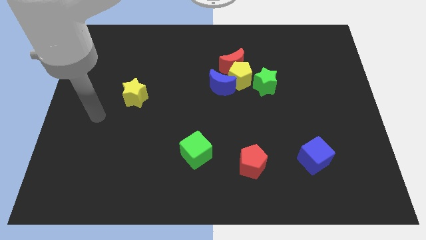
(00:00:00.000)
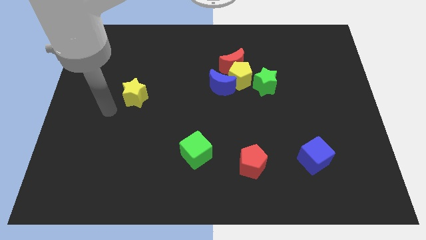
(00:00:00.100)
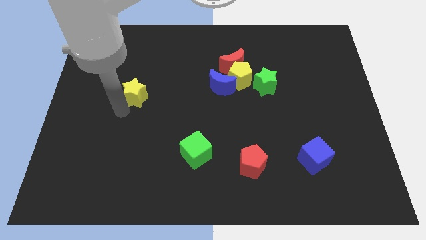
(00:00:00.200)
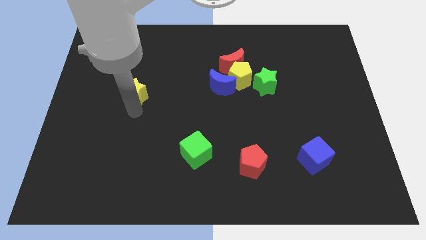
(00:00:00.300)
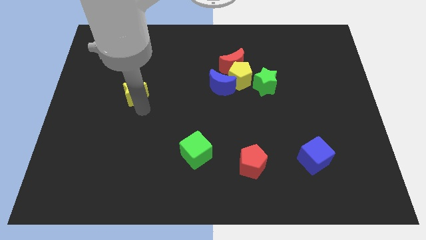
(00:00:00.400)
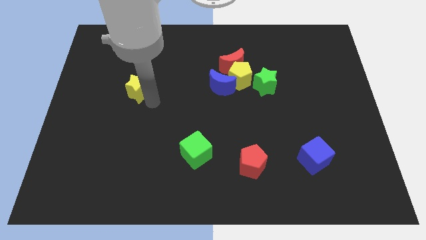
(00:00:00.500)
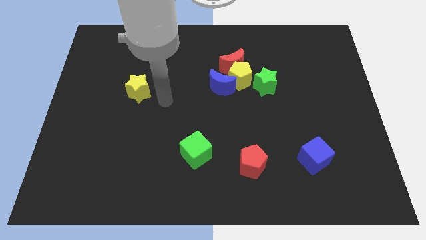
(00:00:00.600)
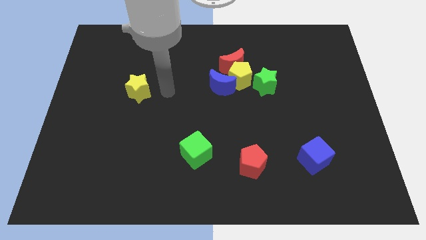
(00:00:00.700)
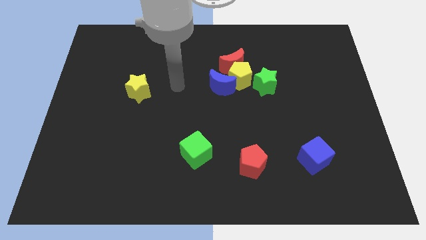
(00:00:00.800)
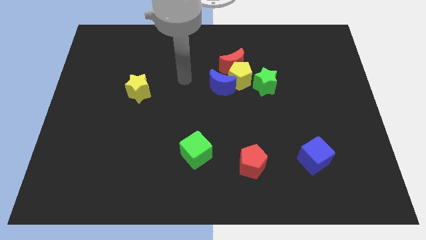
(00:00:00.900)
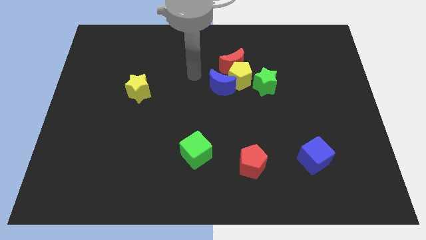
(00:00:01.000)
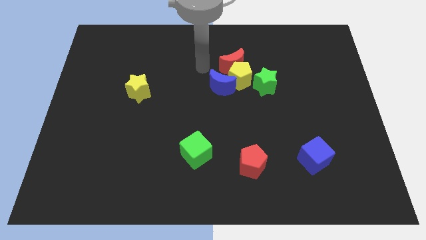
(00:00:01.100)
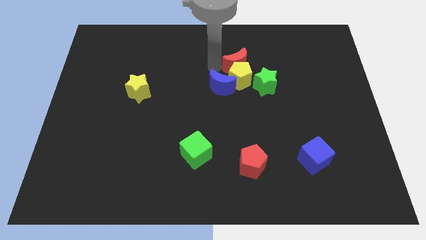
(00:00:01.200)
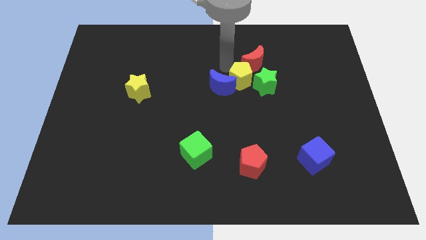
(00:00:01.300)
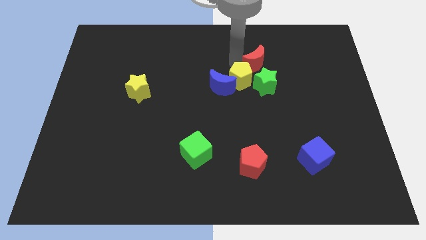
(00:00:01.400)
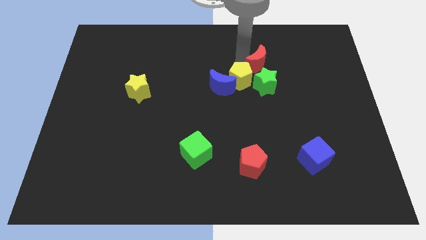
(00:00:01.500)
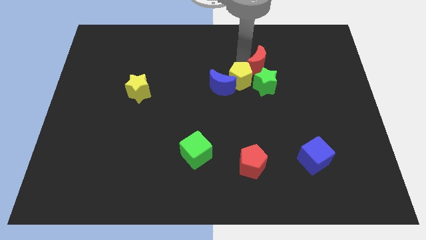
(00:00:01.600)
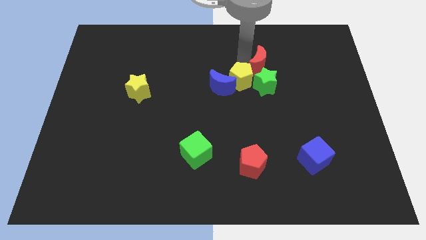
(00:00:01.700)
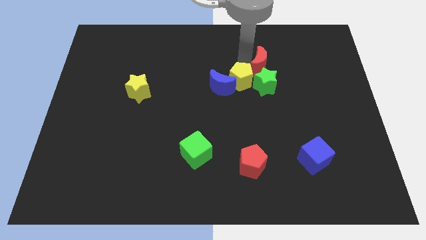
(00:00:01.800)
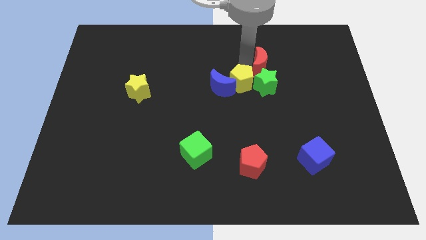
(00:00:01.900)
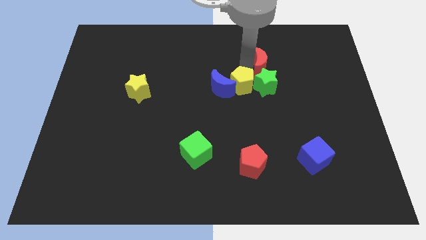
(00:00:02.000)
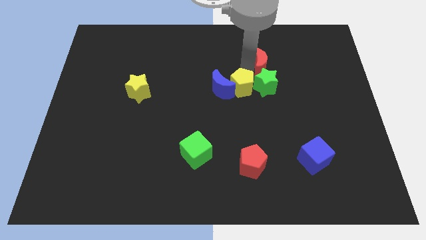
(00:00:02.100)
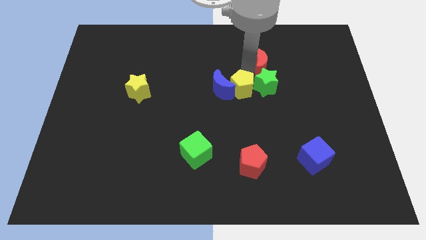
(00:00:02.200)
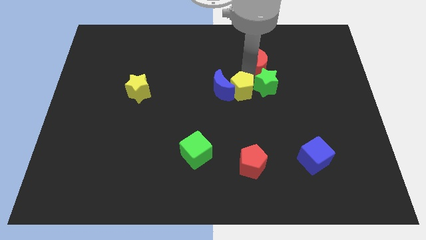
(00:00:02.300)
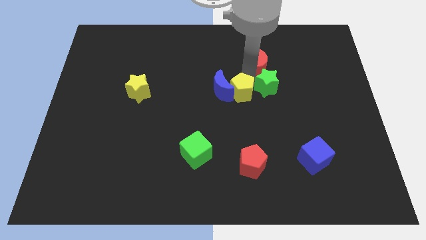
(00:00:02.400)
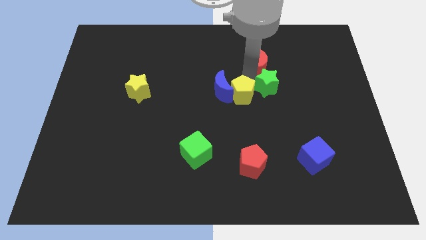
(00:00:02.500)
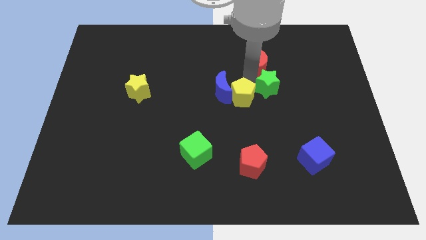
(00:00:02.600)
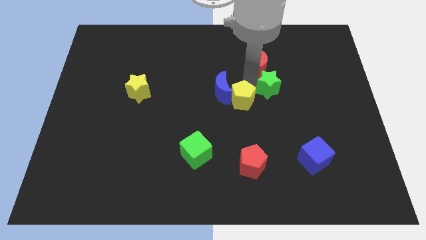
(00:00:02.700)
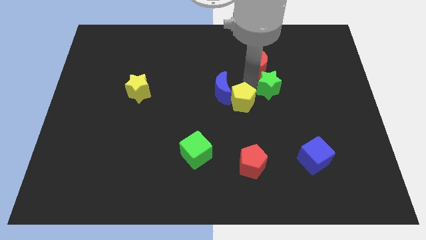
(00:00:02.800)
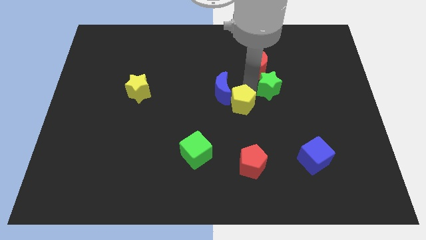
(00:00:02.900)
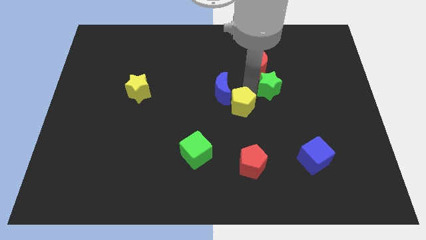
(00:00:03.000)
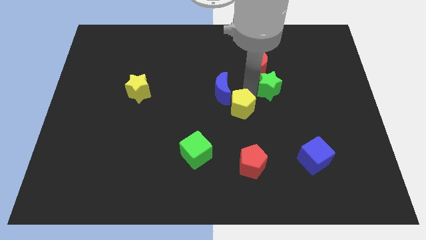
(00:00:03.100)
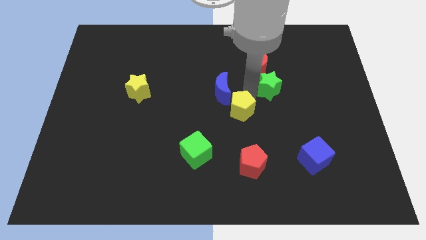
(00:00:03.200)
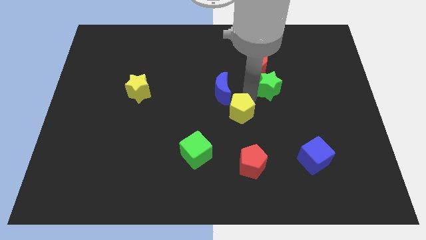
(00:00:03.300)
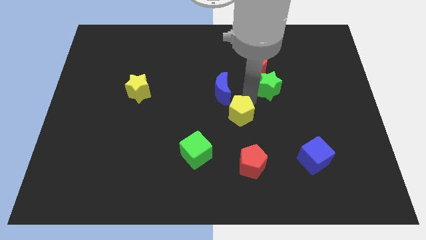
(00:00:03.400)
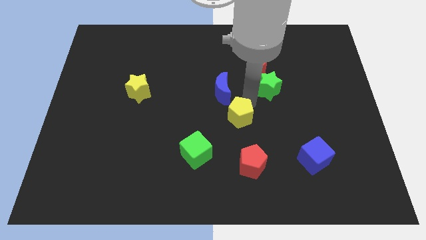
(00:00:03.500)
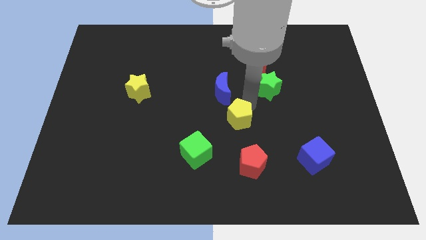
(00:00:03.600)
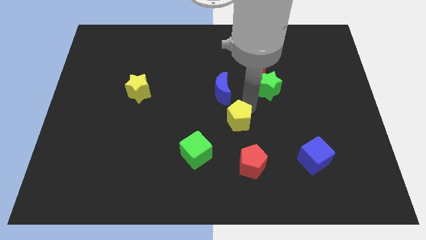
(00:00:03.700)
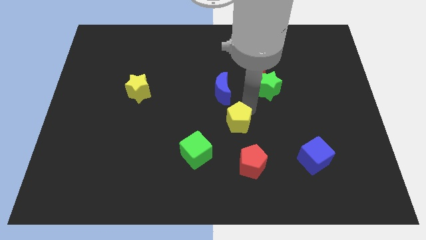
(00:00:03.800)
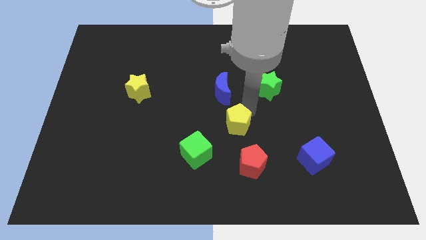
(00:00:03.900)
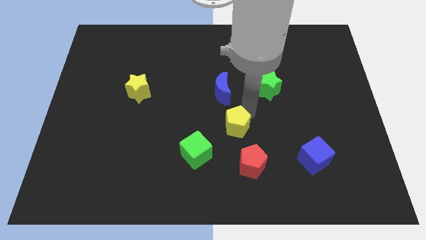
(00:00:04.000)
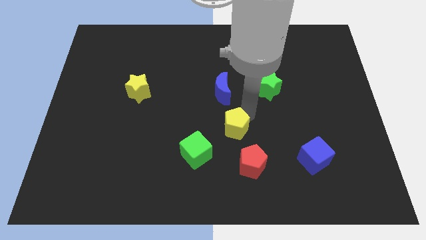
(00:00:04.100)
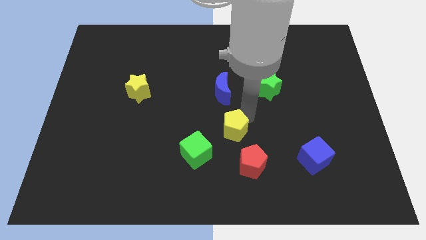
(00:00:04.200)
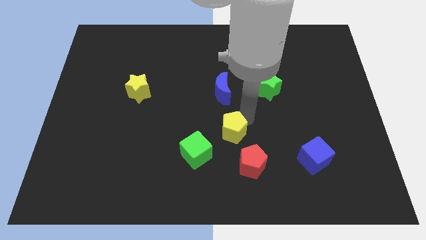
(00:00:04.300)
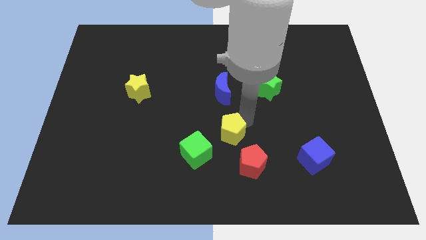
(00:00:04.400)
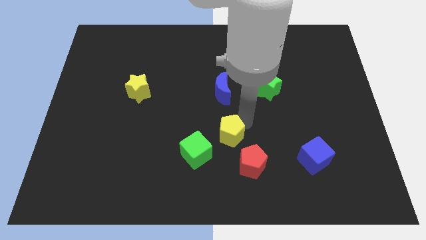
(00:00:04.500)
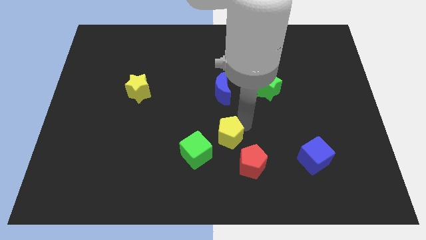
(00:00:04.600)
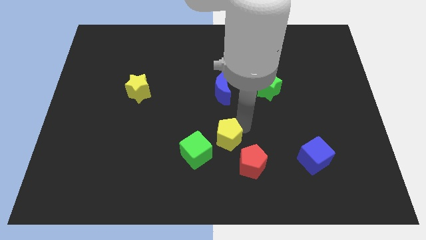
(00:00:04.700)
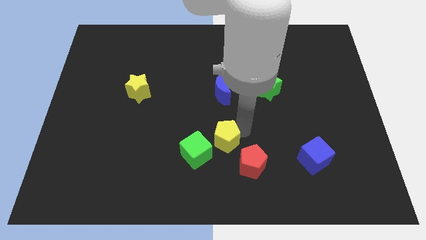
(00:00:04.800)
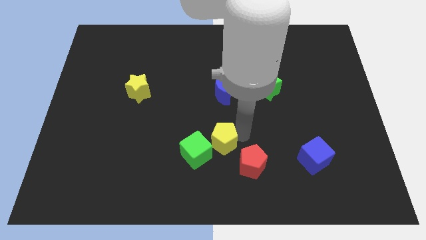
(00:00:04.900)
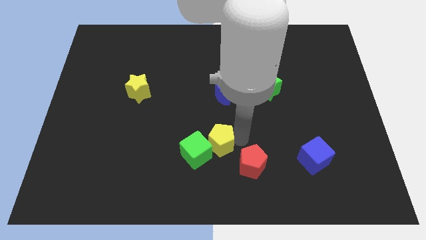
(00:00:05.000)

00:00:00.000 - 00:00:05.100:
move the yellow pentagon to the green cube

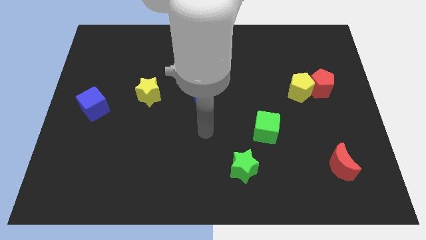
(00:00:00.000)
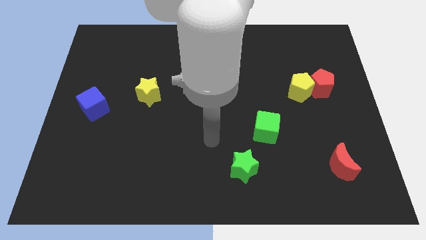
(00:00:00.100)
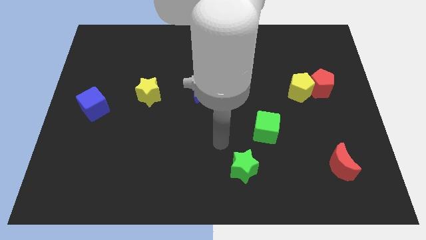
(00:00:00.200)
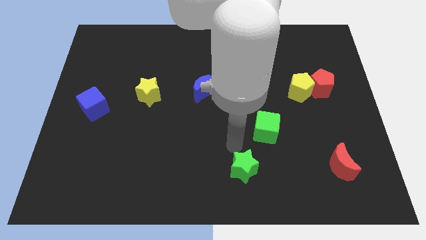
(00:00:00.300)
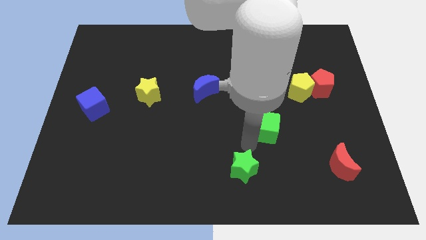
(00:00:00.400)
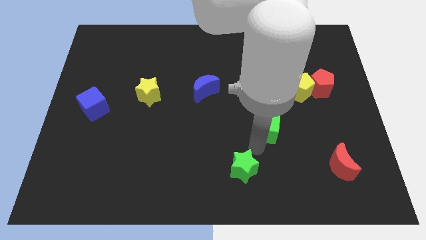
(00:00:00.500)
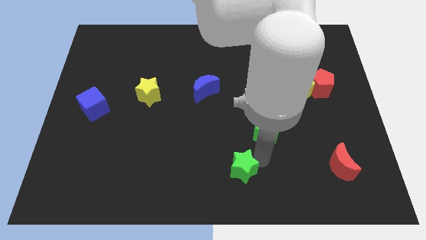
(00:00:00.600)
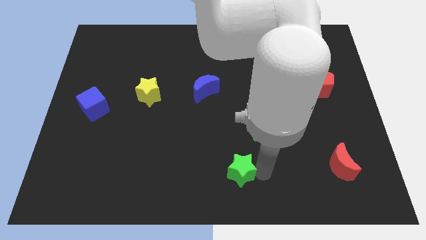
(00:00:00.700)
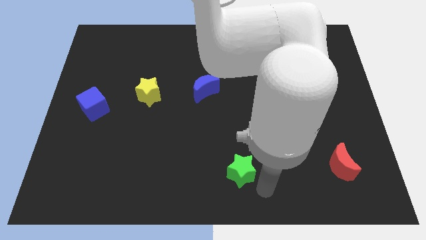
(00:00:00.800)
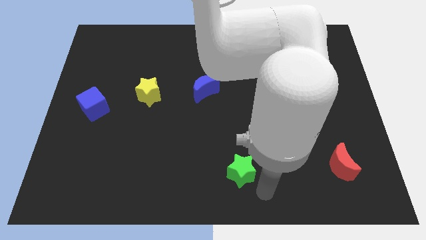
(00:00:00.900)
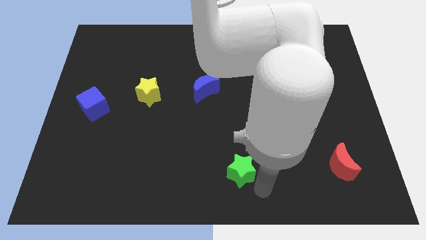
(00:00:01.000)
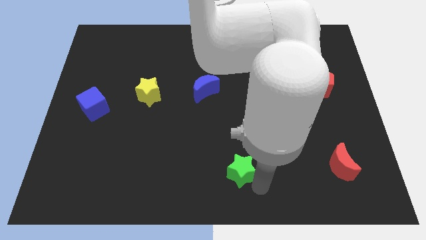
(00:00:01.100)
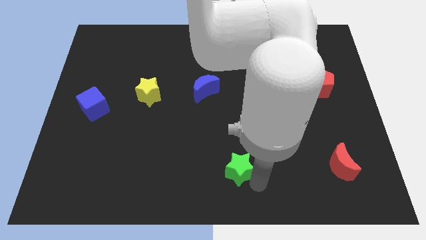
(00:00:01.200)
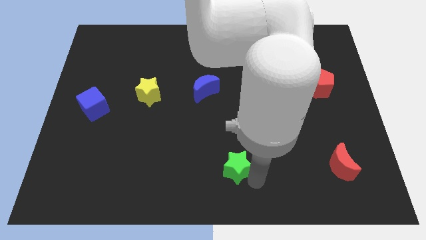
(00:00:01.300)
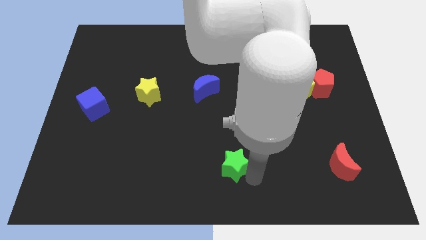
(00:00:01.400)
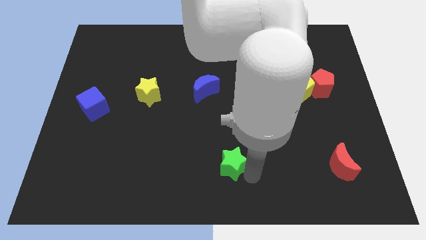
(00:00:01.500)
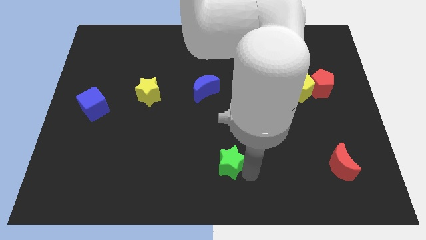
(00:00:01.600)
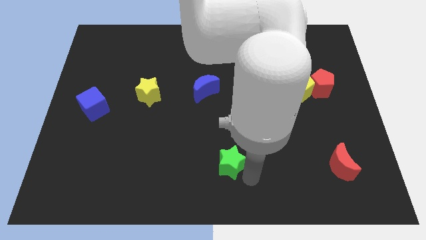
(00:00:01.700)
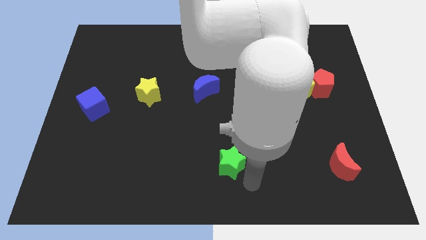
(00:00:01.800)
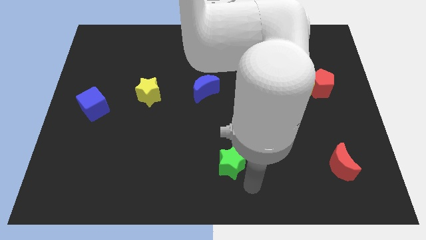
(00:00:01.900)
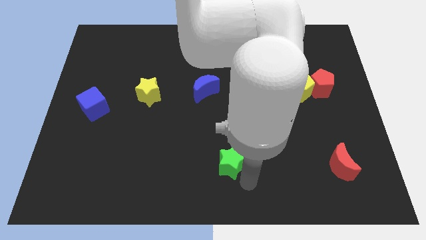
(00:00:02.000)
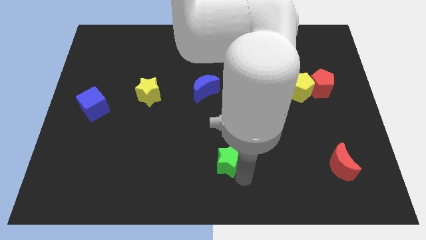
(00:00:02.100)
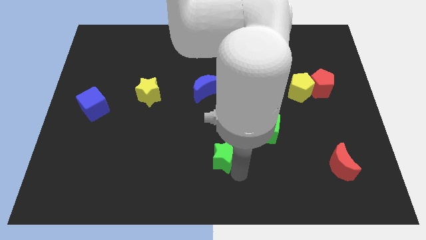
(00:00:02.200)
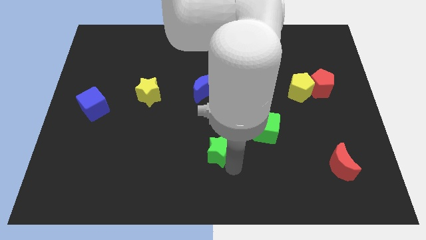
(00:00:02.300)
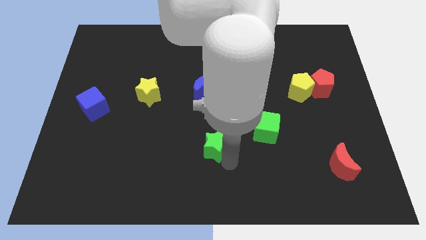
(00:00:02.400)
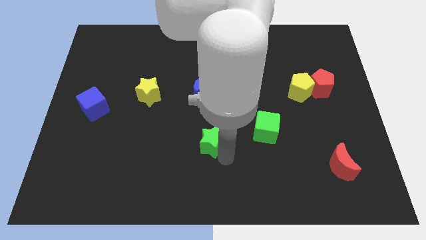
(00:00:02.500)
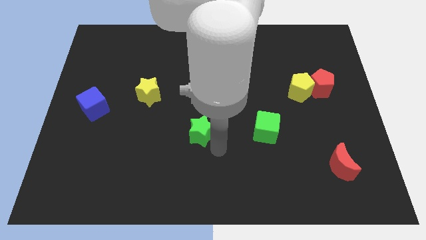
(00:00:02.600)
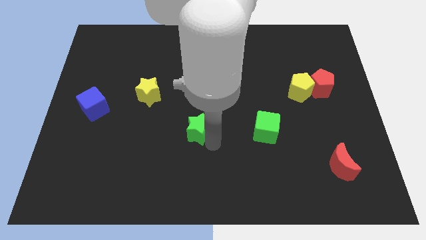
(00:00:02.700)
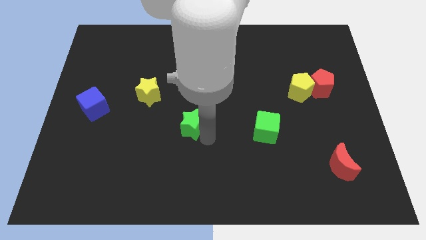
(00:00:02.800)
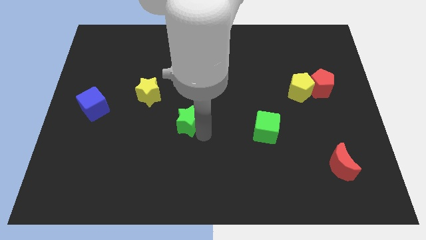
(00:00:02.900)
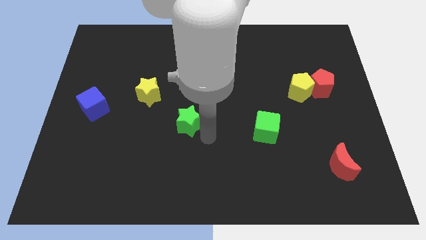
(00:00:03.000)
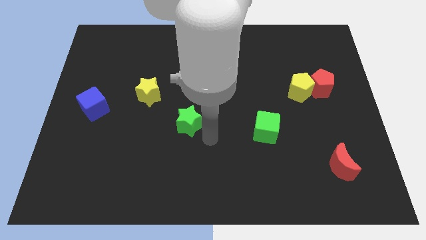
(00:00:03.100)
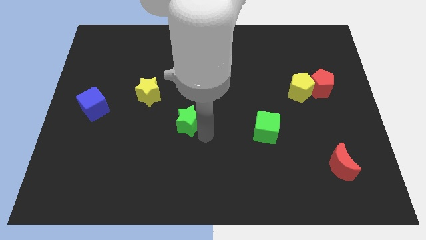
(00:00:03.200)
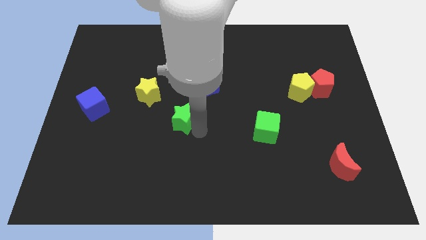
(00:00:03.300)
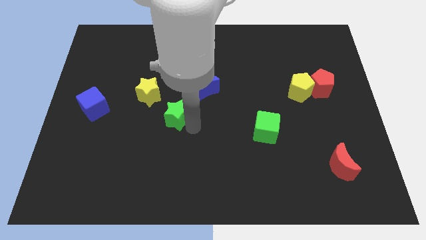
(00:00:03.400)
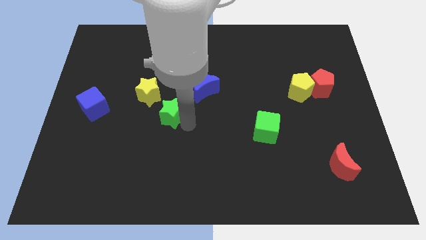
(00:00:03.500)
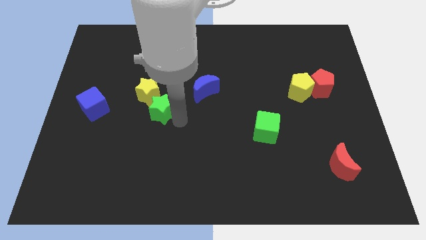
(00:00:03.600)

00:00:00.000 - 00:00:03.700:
put the green star close to the yellow star
